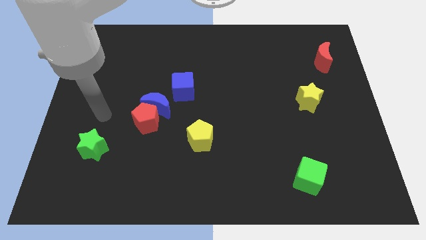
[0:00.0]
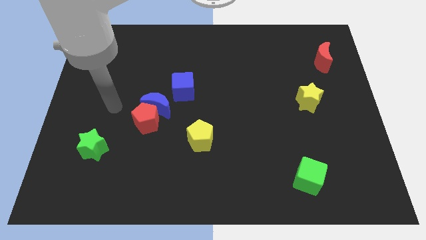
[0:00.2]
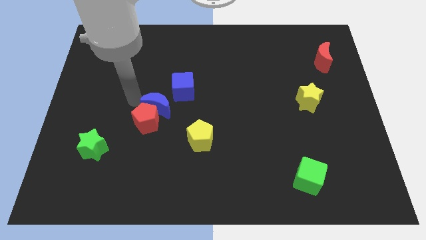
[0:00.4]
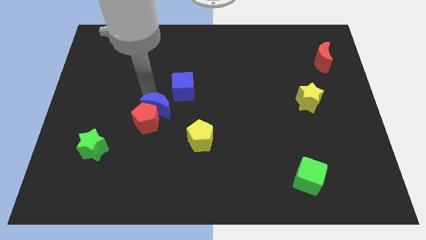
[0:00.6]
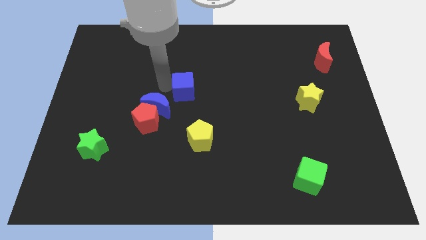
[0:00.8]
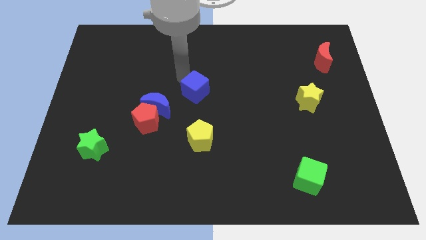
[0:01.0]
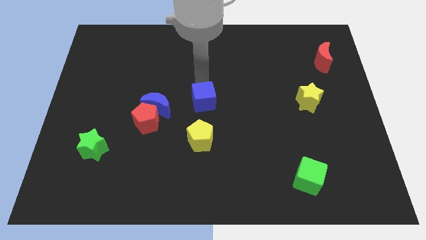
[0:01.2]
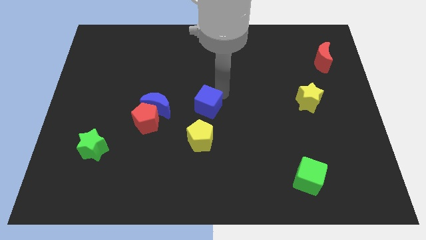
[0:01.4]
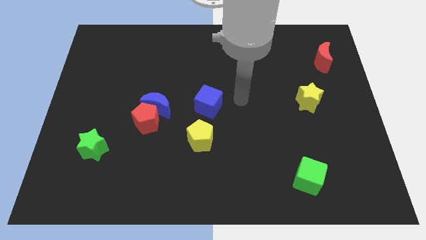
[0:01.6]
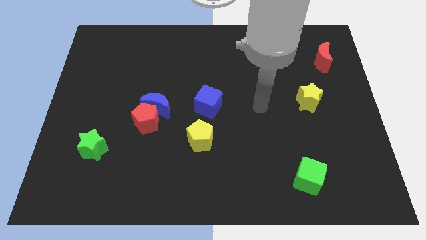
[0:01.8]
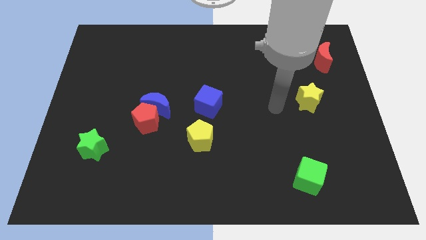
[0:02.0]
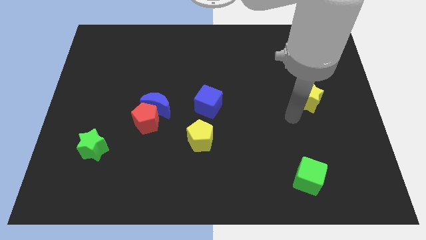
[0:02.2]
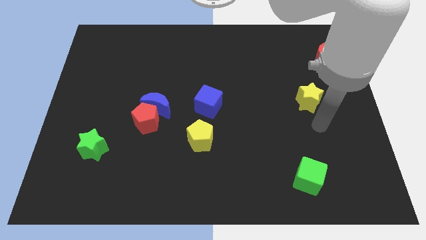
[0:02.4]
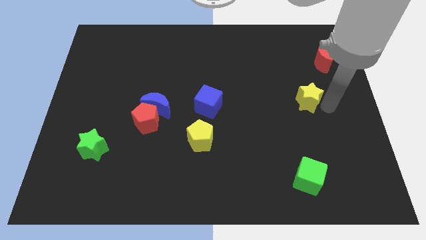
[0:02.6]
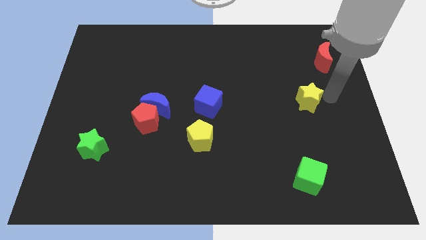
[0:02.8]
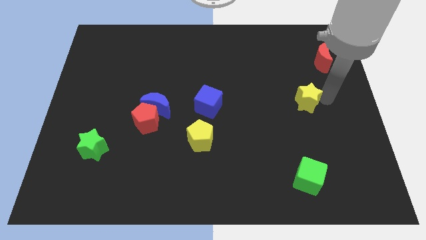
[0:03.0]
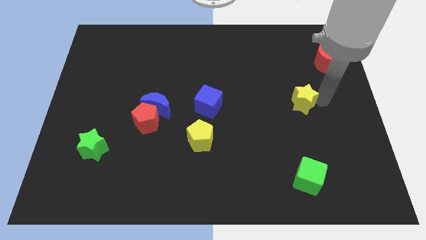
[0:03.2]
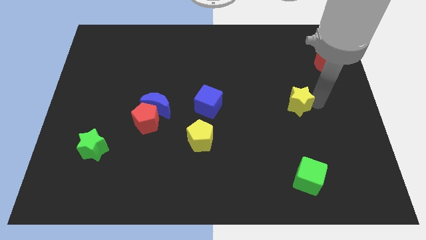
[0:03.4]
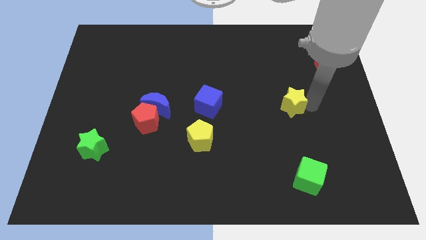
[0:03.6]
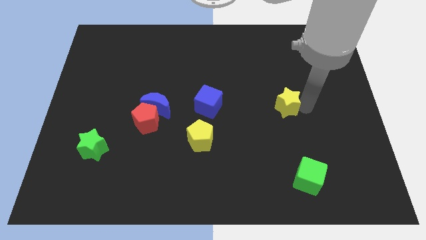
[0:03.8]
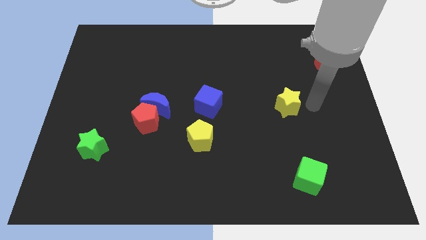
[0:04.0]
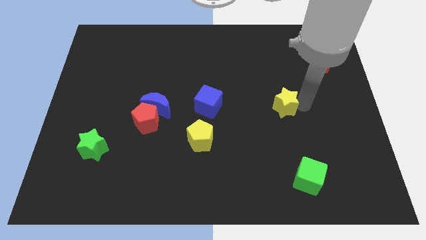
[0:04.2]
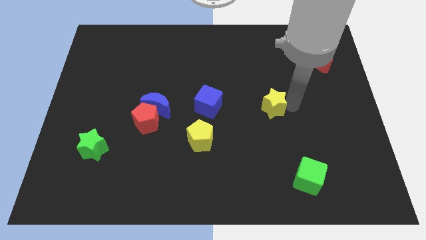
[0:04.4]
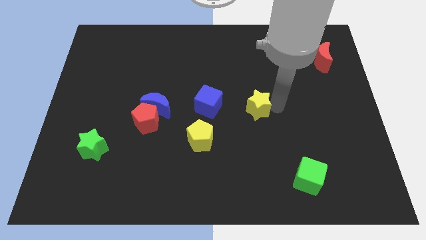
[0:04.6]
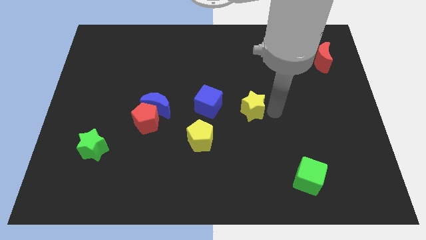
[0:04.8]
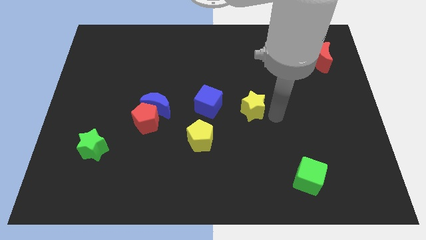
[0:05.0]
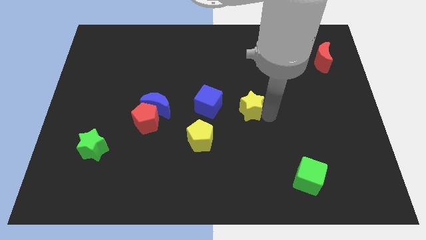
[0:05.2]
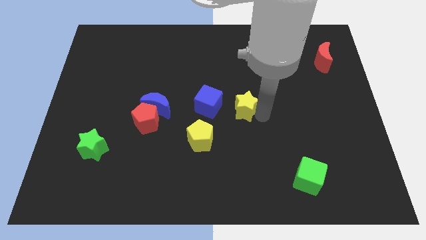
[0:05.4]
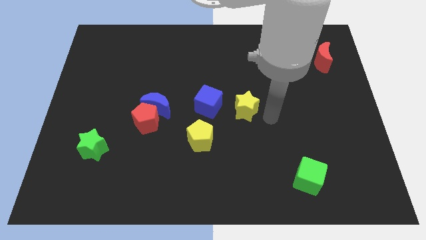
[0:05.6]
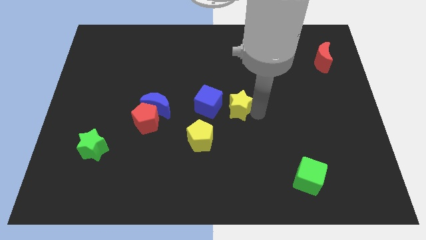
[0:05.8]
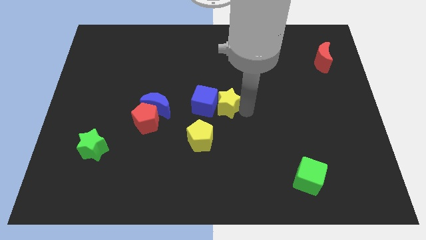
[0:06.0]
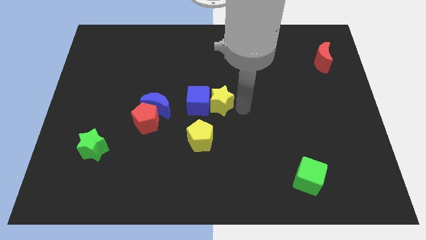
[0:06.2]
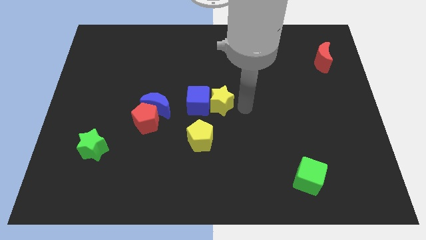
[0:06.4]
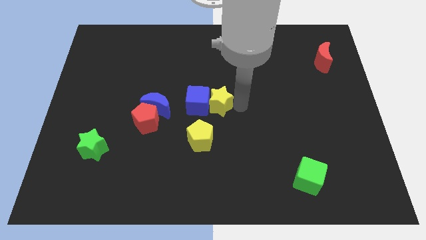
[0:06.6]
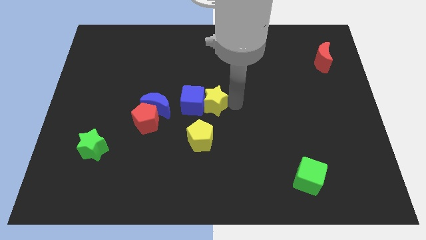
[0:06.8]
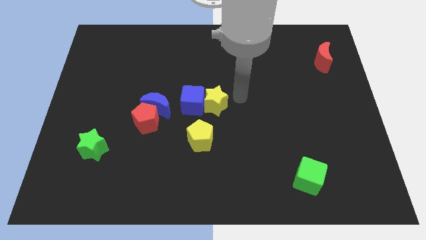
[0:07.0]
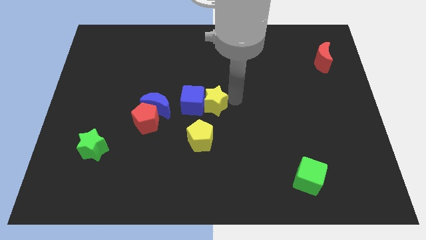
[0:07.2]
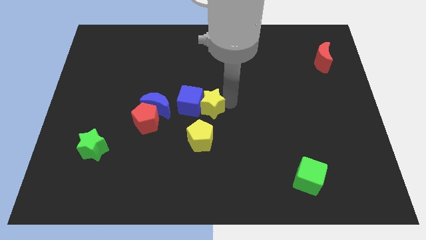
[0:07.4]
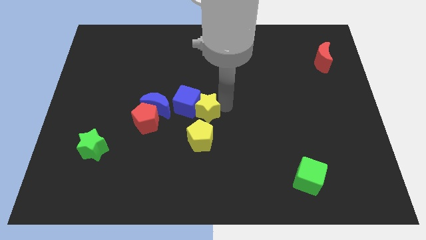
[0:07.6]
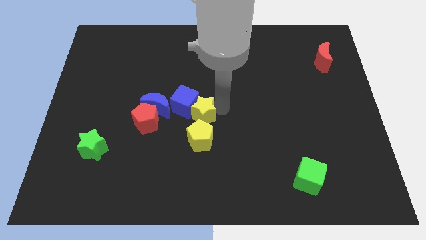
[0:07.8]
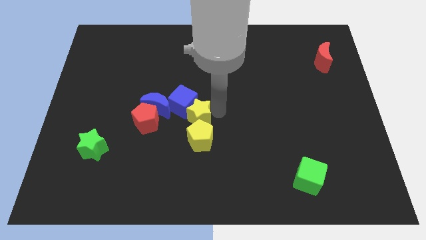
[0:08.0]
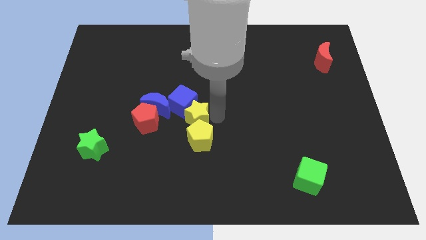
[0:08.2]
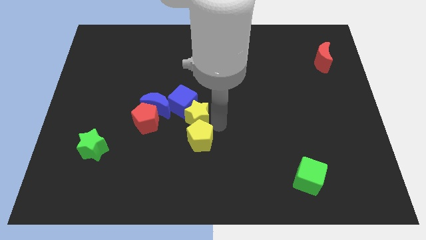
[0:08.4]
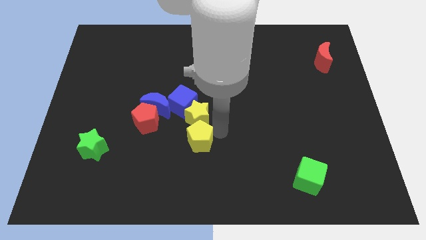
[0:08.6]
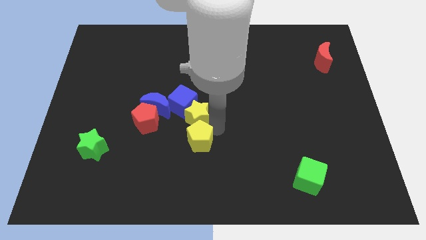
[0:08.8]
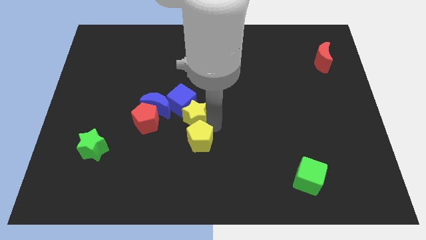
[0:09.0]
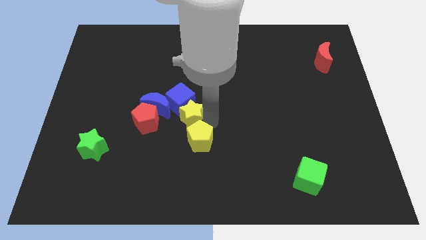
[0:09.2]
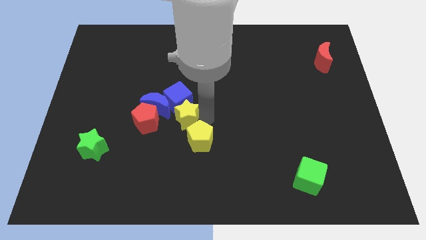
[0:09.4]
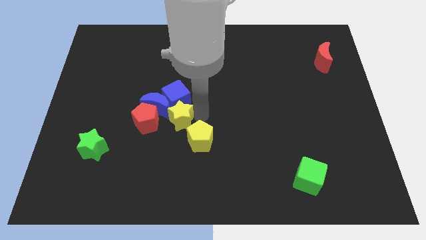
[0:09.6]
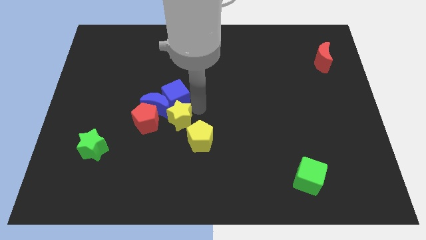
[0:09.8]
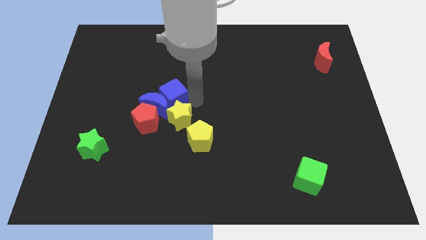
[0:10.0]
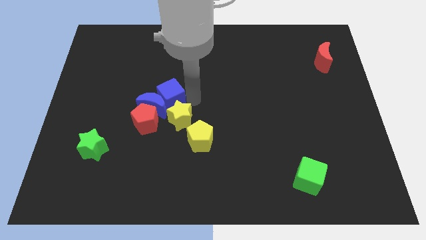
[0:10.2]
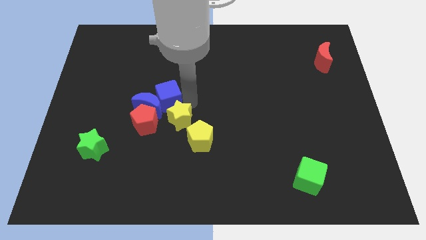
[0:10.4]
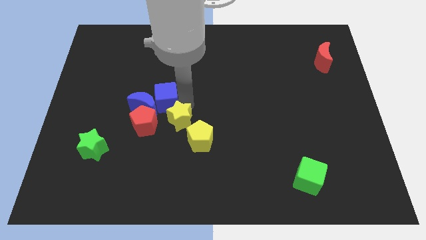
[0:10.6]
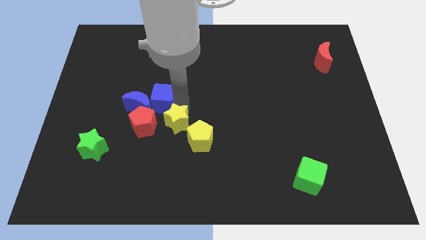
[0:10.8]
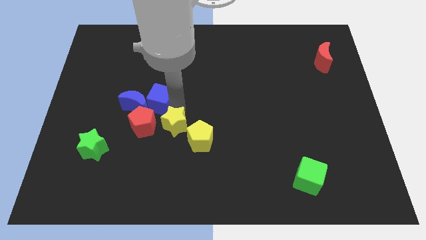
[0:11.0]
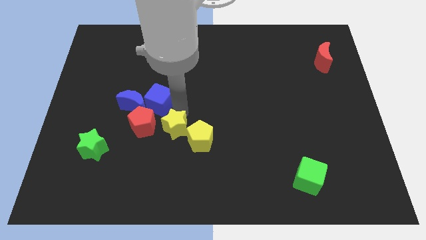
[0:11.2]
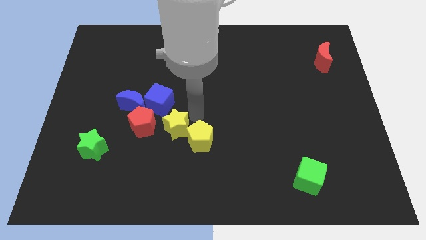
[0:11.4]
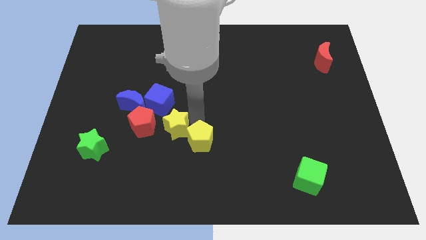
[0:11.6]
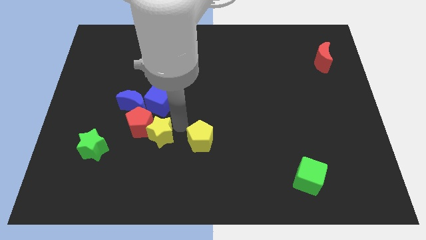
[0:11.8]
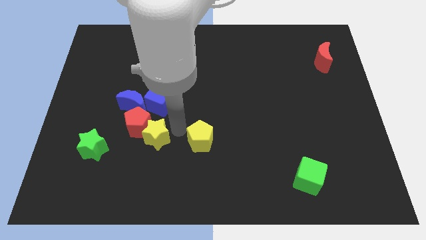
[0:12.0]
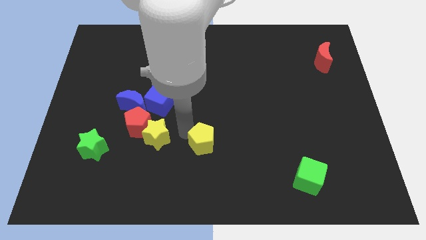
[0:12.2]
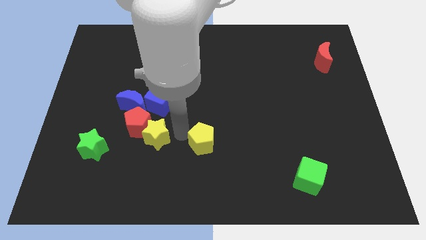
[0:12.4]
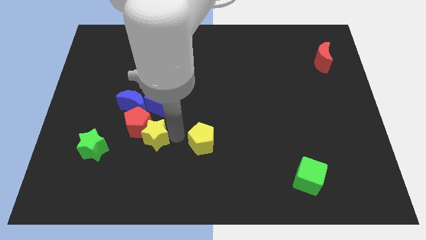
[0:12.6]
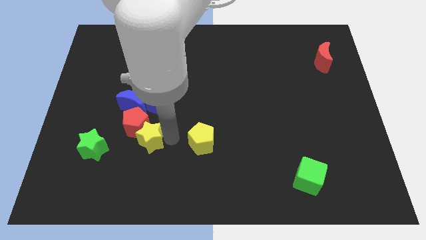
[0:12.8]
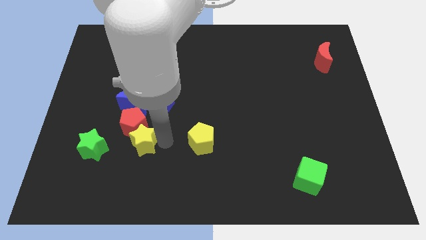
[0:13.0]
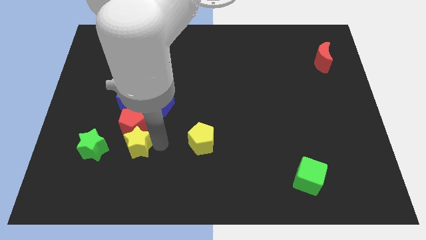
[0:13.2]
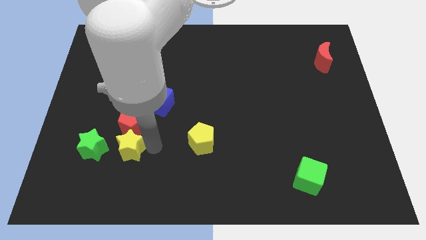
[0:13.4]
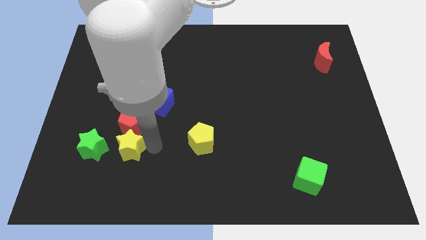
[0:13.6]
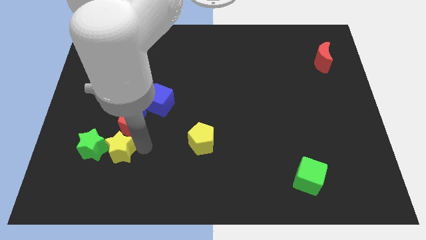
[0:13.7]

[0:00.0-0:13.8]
move the yellow star towards the green star
